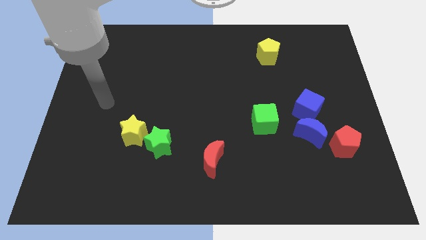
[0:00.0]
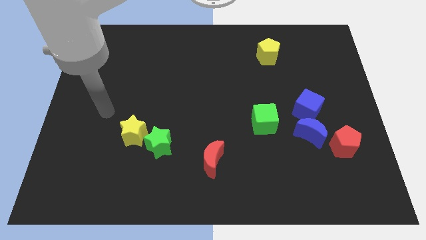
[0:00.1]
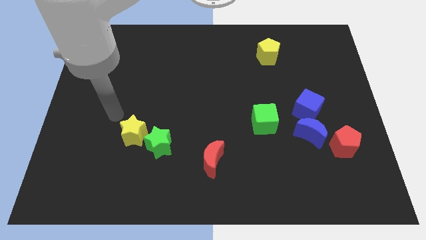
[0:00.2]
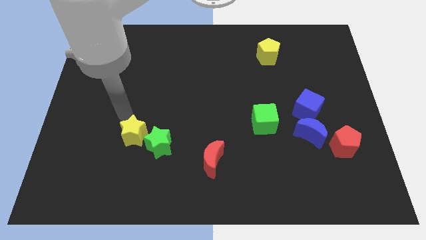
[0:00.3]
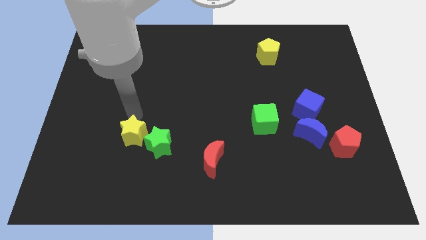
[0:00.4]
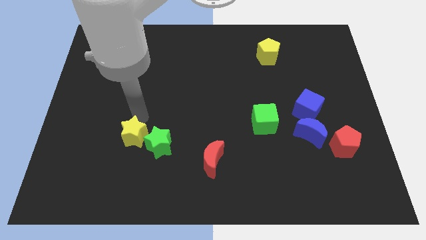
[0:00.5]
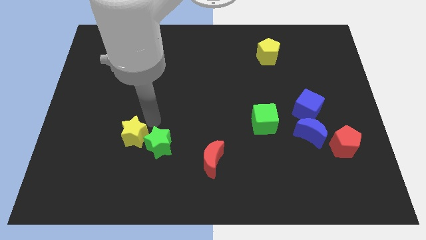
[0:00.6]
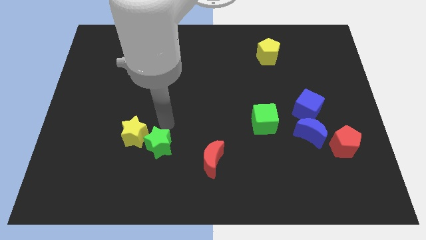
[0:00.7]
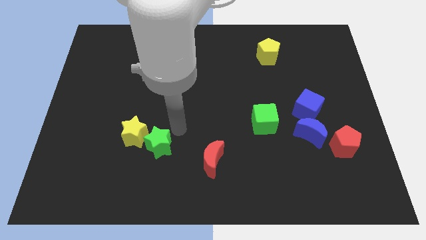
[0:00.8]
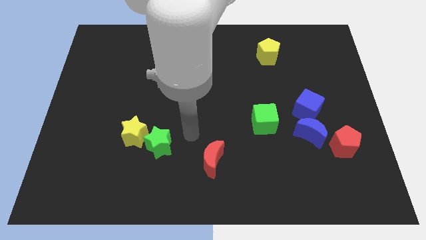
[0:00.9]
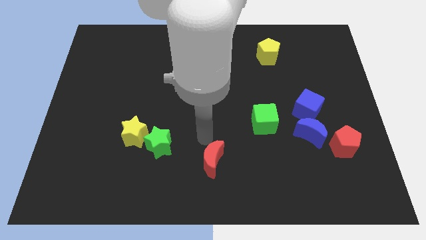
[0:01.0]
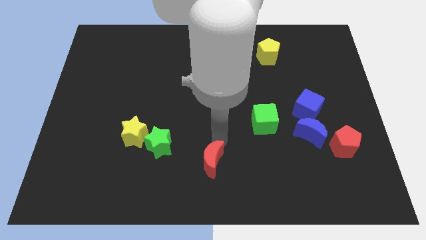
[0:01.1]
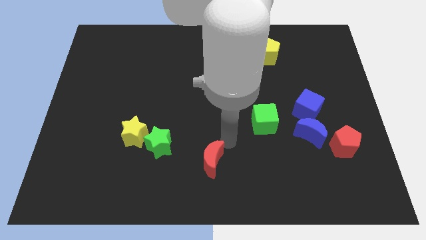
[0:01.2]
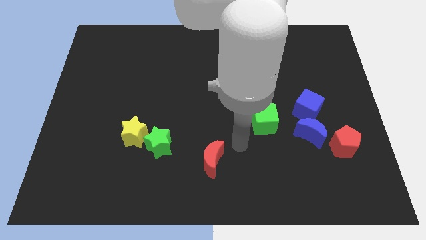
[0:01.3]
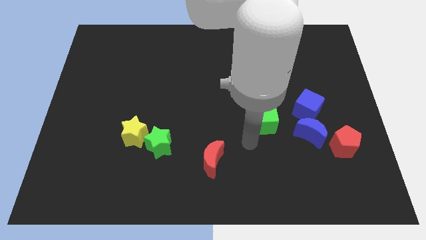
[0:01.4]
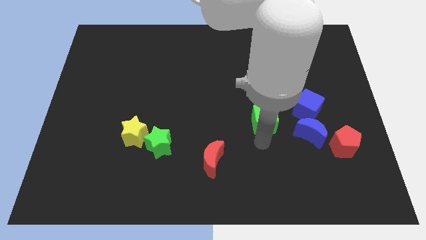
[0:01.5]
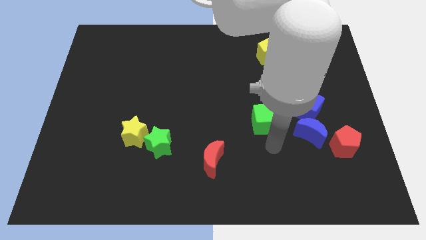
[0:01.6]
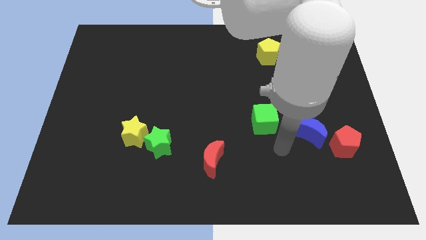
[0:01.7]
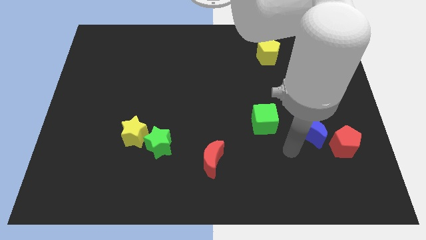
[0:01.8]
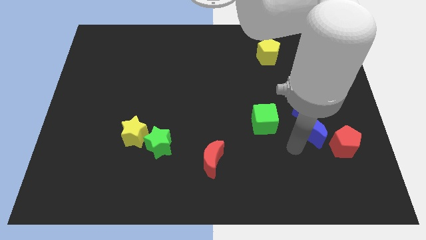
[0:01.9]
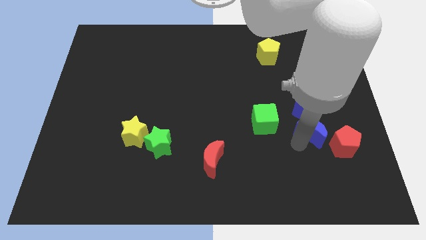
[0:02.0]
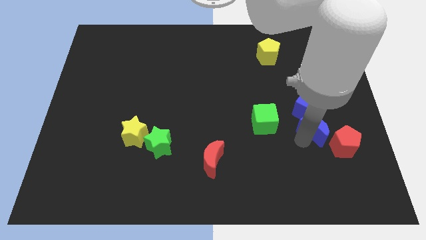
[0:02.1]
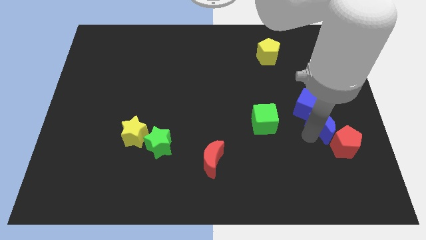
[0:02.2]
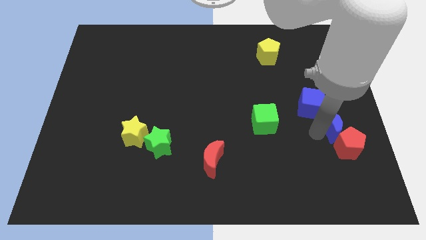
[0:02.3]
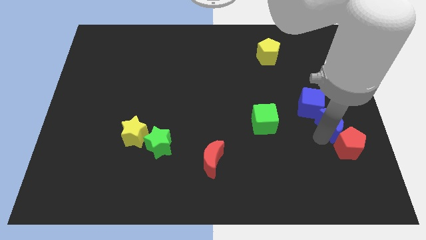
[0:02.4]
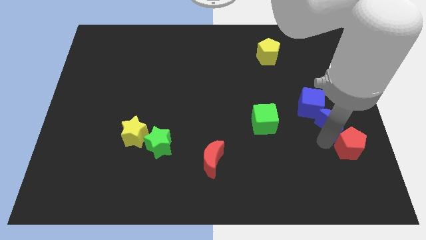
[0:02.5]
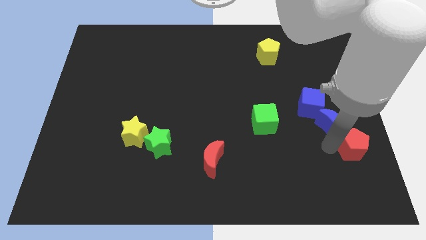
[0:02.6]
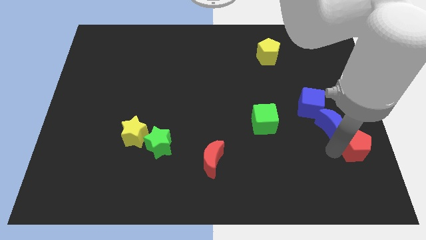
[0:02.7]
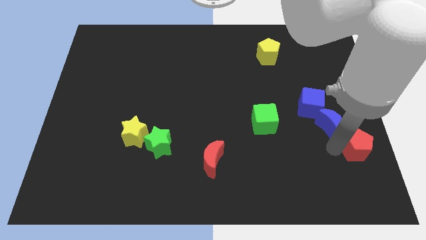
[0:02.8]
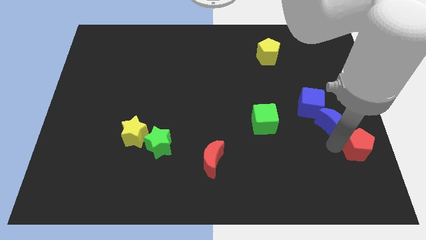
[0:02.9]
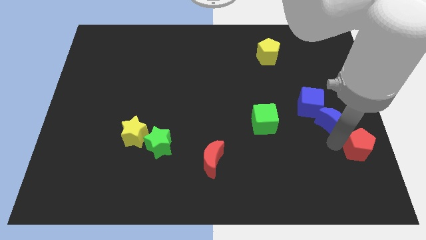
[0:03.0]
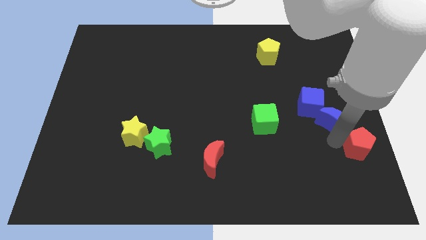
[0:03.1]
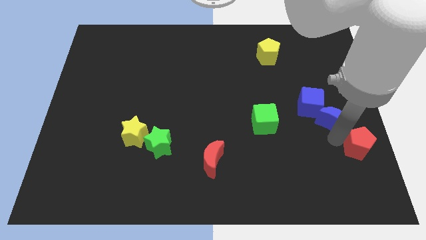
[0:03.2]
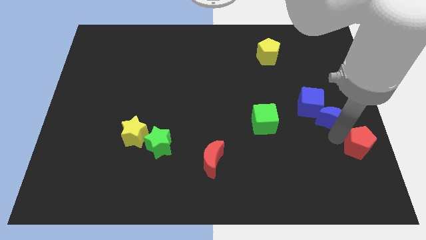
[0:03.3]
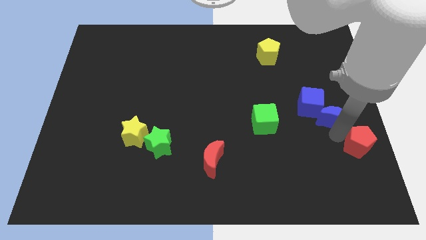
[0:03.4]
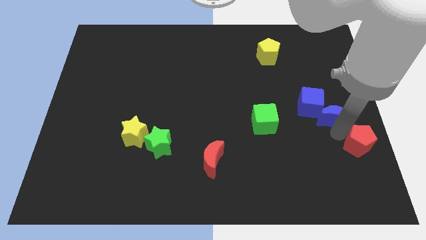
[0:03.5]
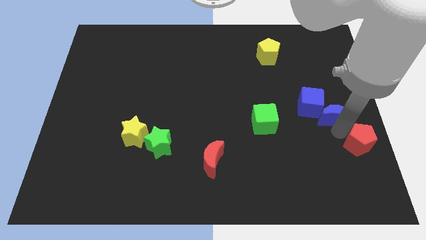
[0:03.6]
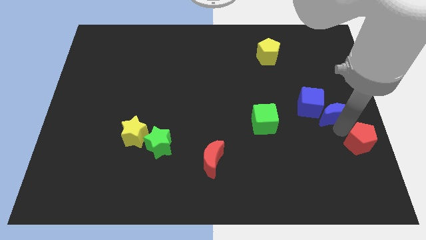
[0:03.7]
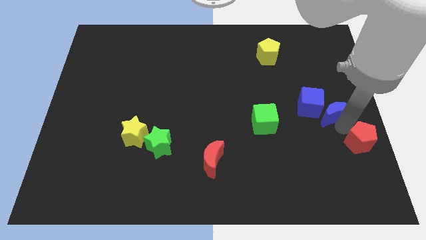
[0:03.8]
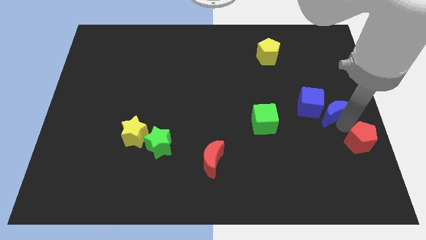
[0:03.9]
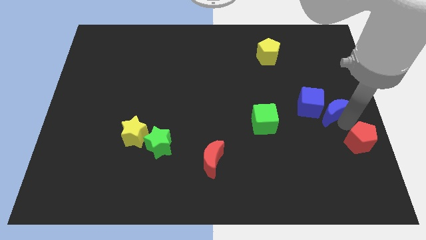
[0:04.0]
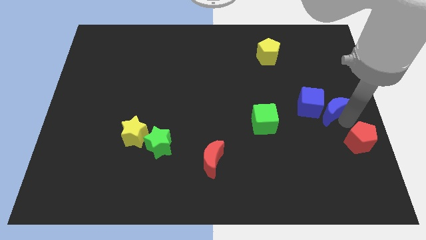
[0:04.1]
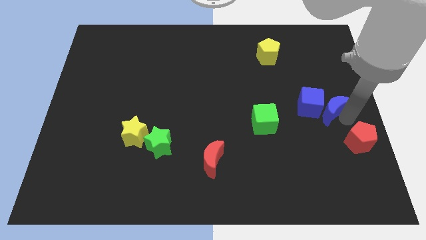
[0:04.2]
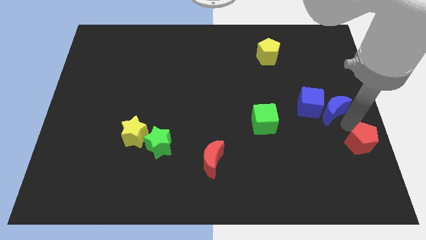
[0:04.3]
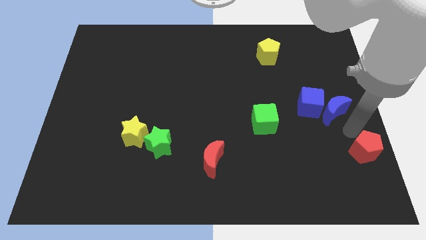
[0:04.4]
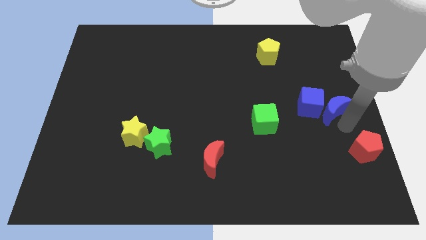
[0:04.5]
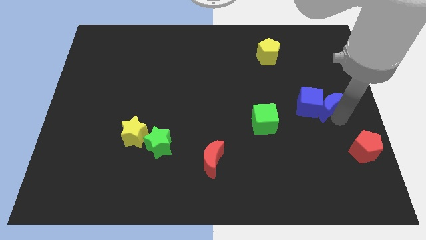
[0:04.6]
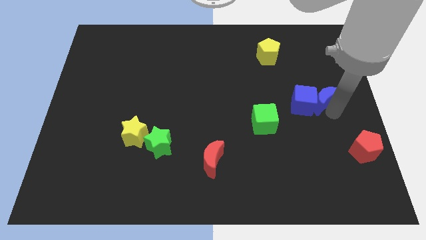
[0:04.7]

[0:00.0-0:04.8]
push the blue moon slightly up

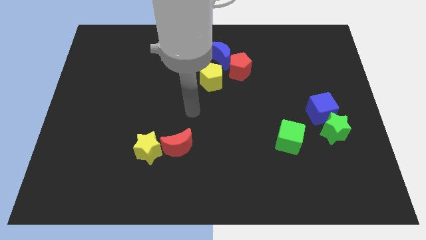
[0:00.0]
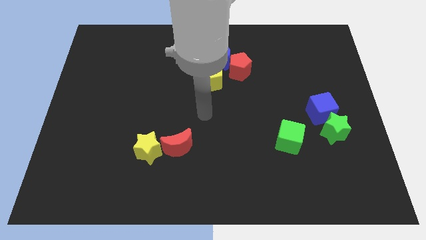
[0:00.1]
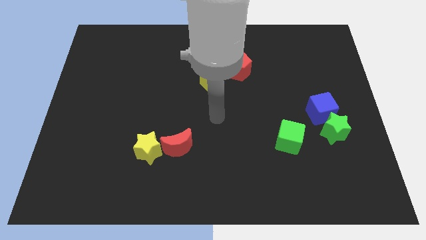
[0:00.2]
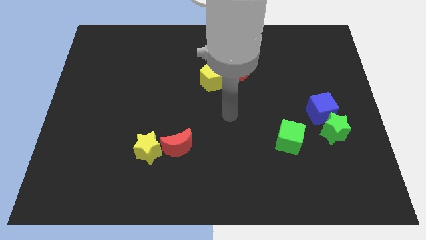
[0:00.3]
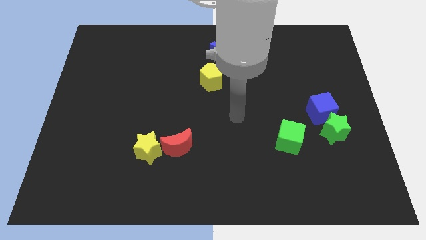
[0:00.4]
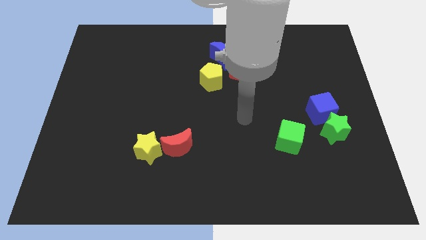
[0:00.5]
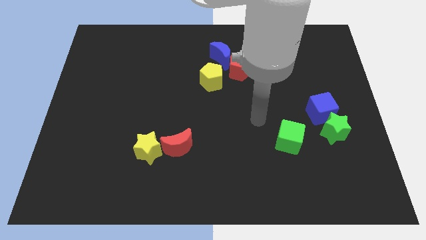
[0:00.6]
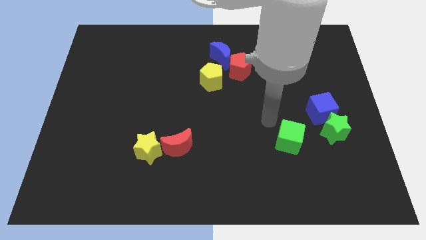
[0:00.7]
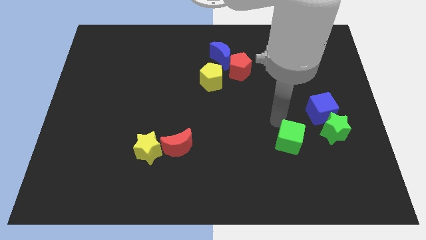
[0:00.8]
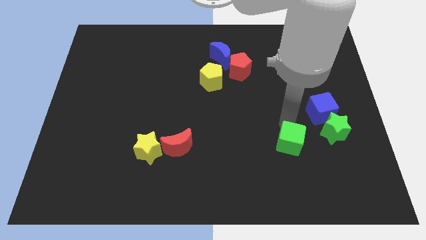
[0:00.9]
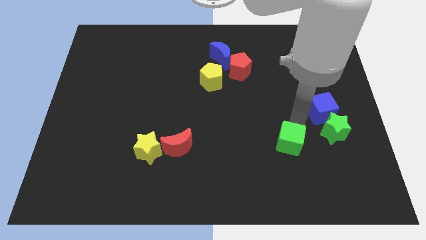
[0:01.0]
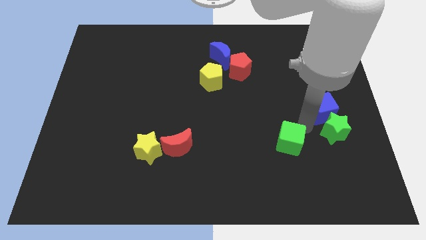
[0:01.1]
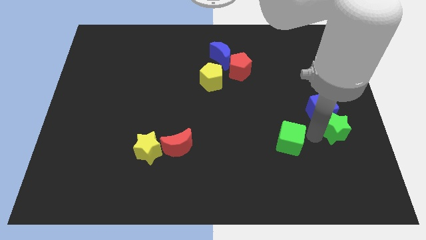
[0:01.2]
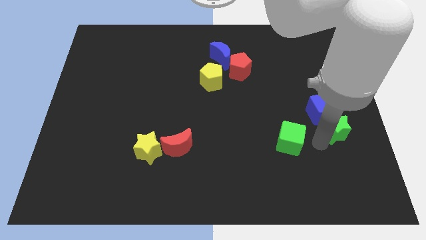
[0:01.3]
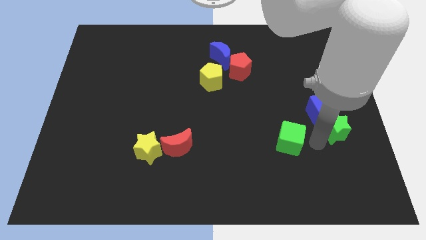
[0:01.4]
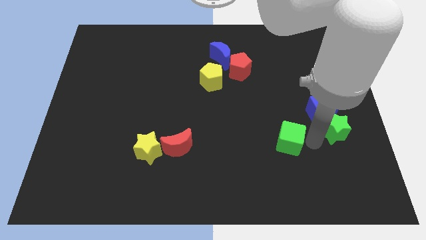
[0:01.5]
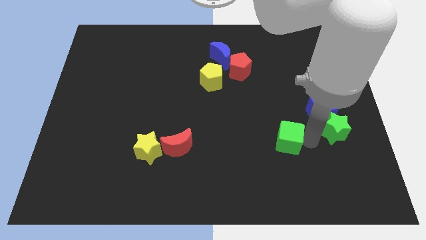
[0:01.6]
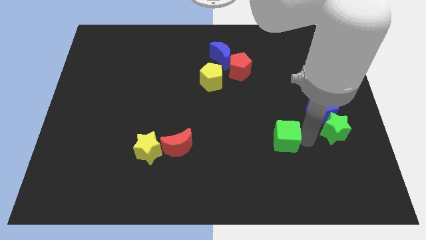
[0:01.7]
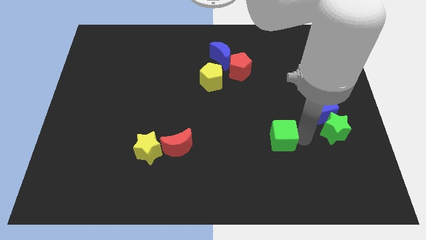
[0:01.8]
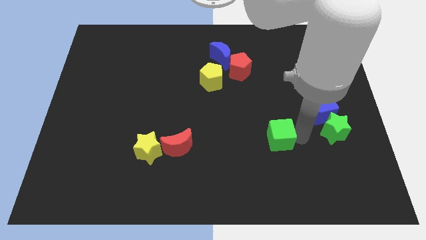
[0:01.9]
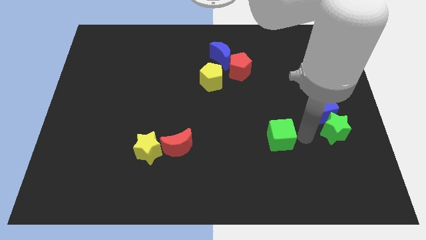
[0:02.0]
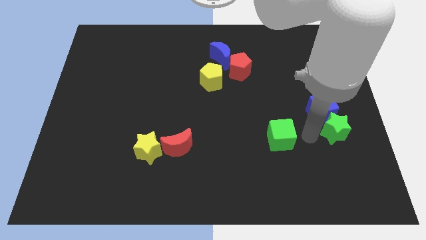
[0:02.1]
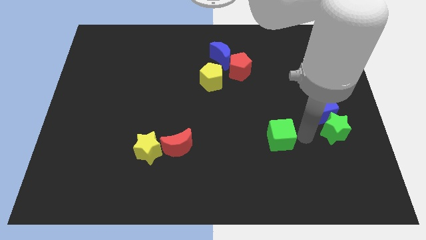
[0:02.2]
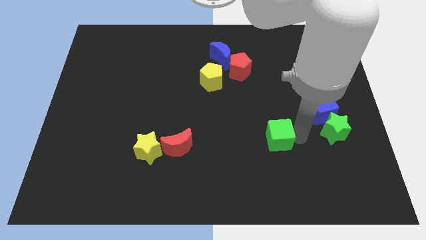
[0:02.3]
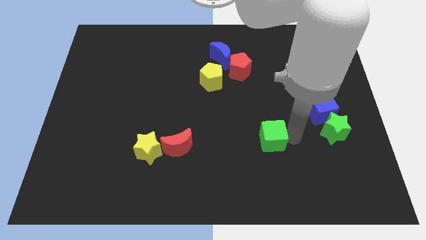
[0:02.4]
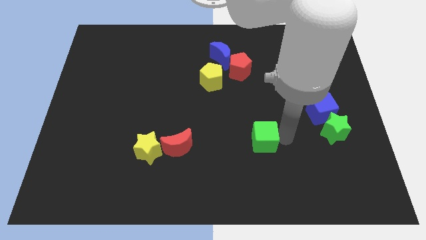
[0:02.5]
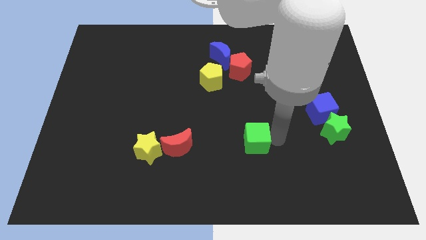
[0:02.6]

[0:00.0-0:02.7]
slightly push the green cube left
